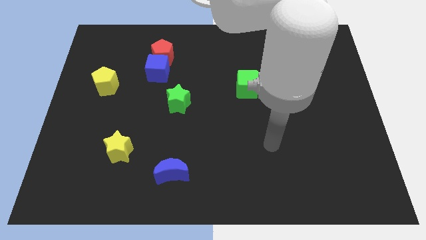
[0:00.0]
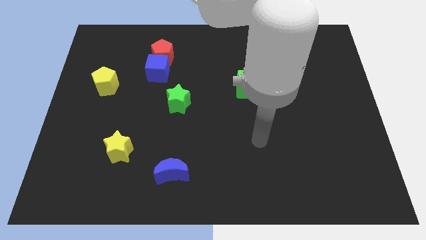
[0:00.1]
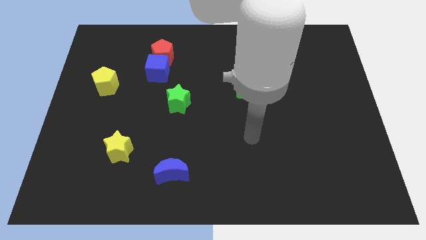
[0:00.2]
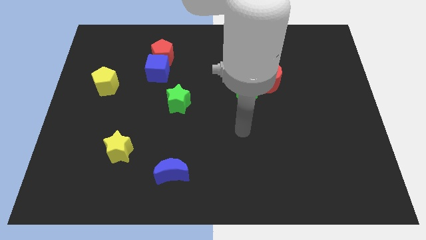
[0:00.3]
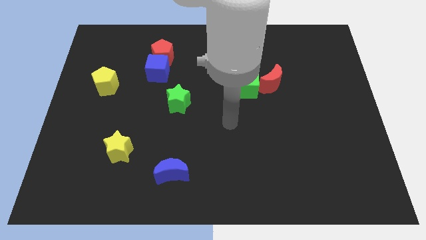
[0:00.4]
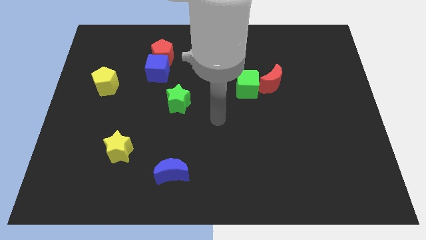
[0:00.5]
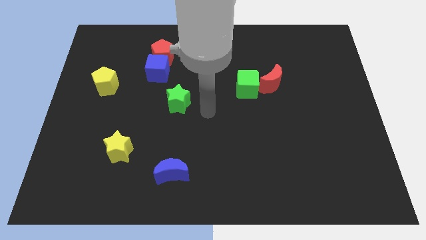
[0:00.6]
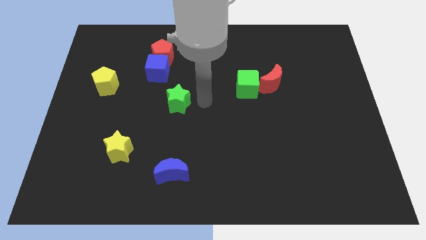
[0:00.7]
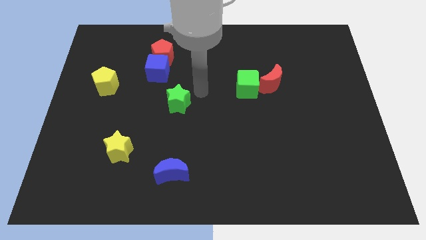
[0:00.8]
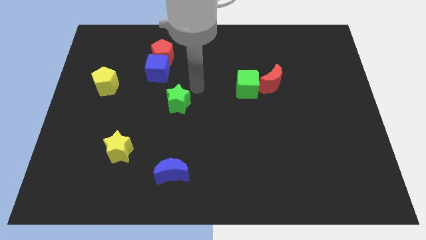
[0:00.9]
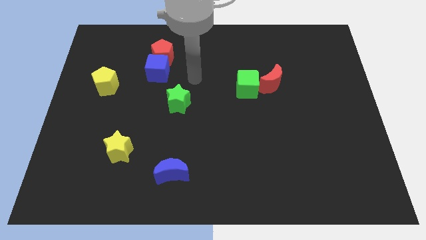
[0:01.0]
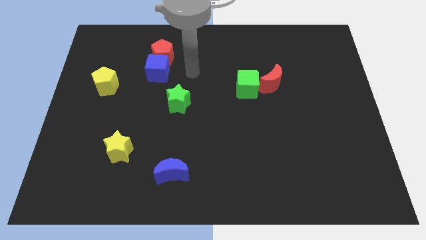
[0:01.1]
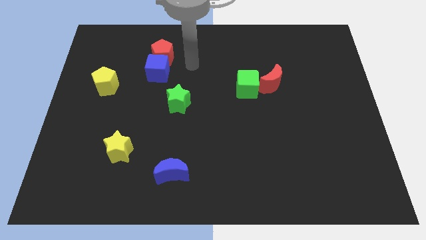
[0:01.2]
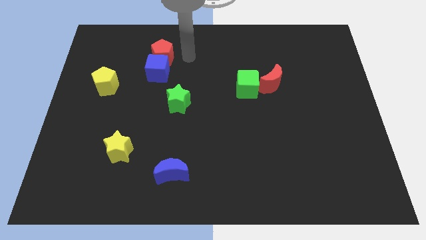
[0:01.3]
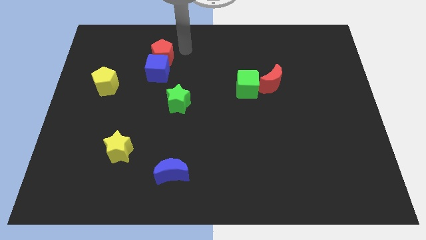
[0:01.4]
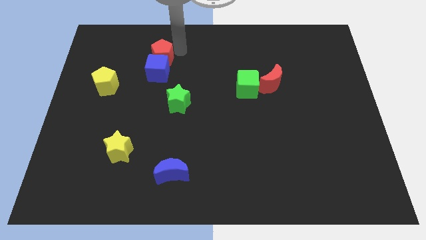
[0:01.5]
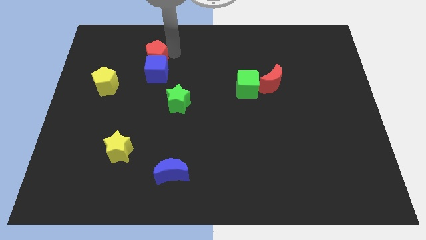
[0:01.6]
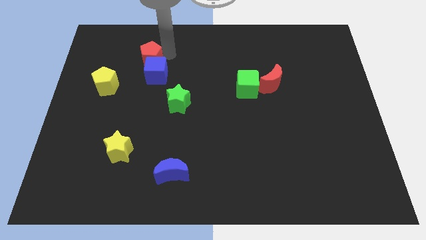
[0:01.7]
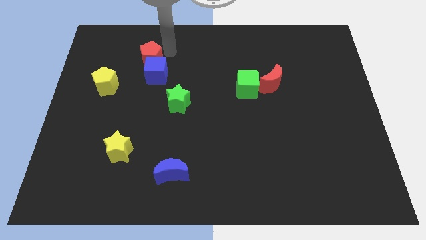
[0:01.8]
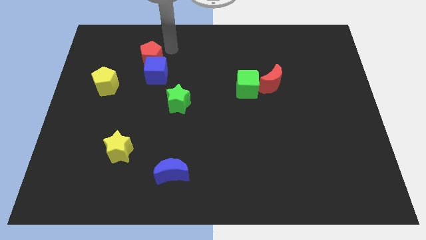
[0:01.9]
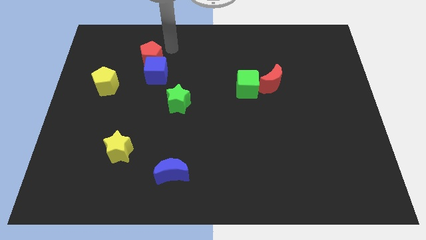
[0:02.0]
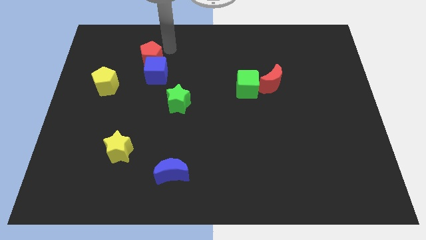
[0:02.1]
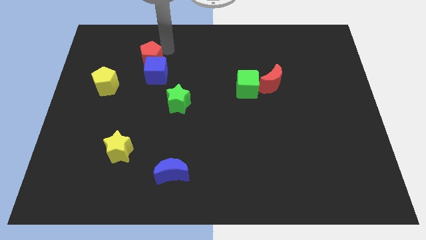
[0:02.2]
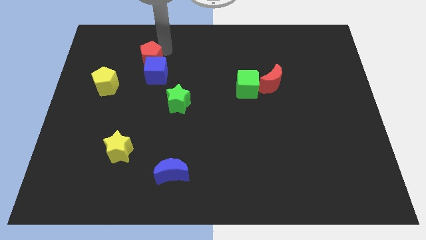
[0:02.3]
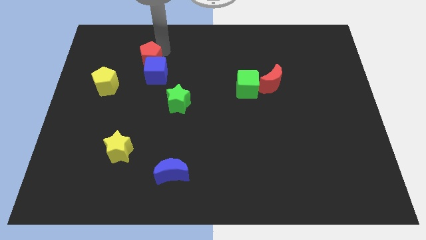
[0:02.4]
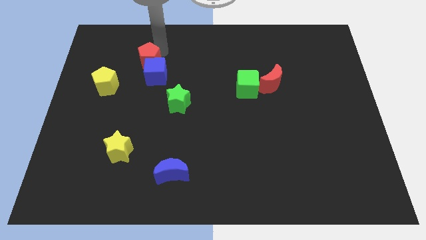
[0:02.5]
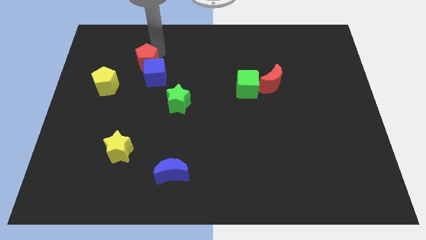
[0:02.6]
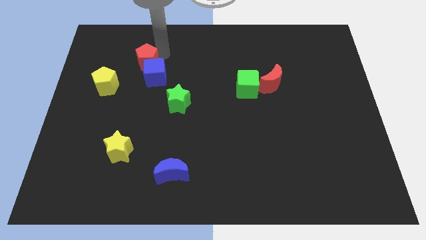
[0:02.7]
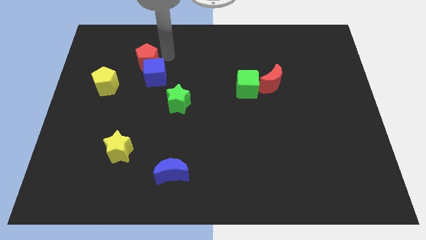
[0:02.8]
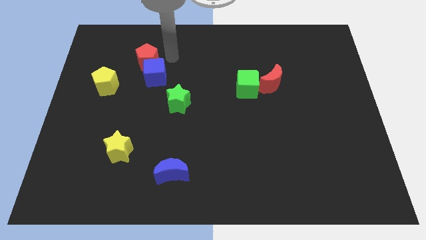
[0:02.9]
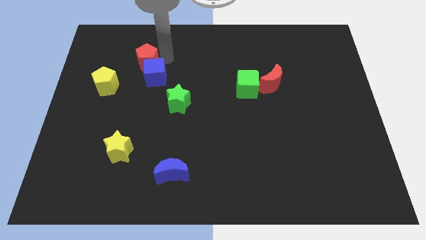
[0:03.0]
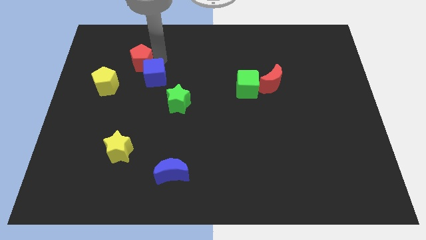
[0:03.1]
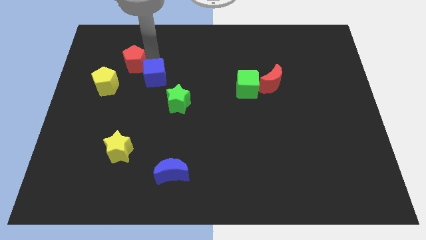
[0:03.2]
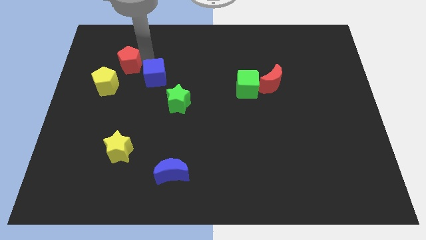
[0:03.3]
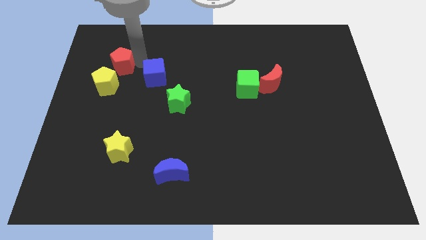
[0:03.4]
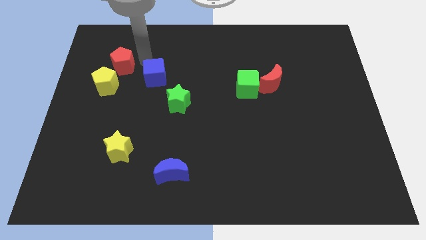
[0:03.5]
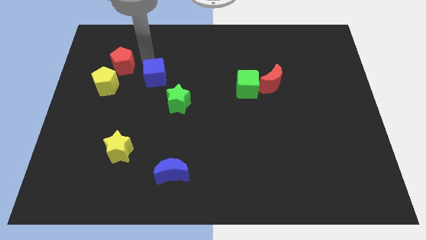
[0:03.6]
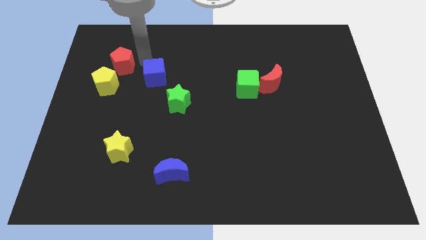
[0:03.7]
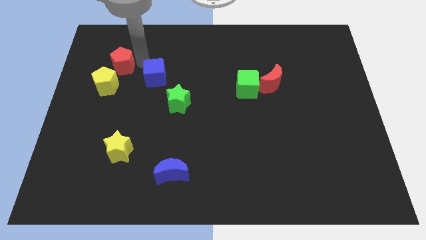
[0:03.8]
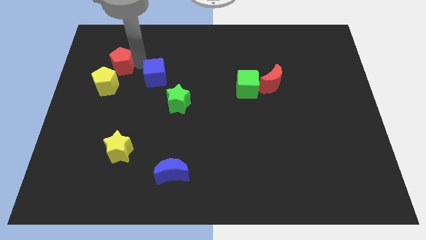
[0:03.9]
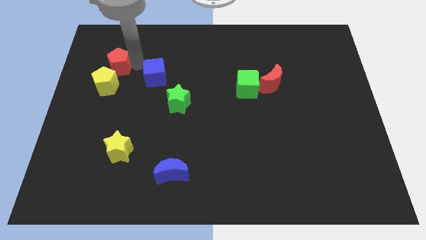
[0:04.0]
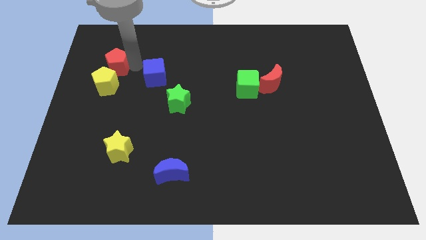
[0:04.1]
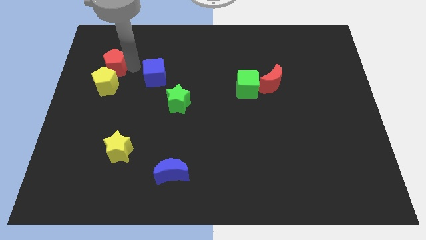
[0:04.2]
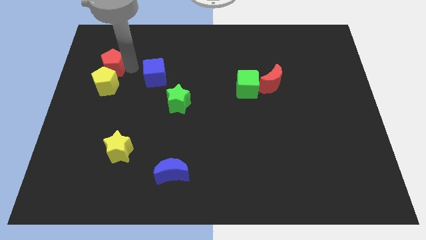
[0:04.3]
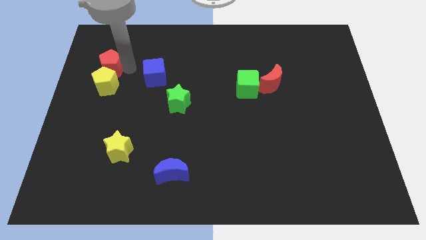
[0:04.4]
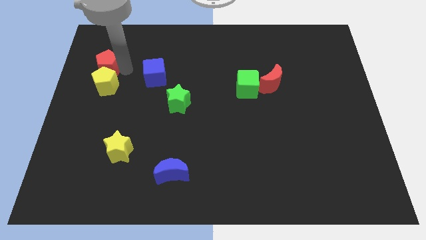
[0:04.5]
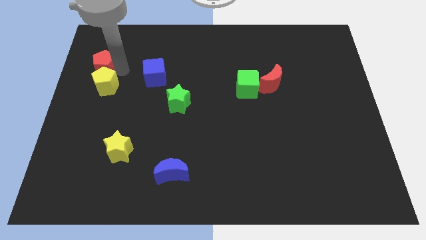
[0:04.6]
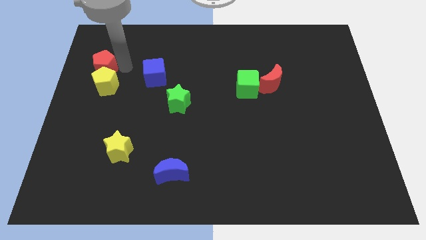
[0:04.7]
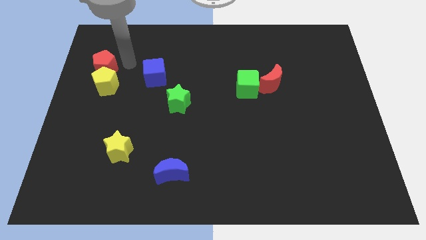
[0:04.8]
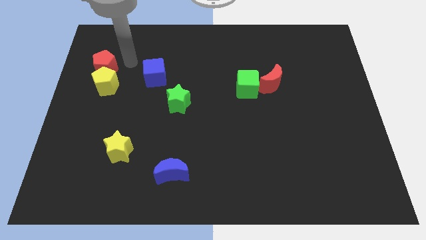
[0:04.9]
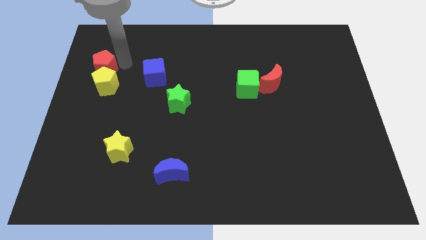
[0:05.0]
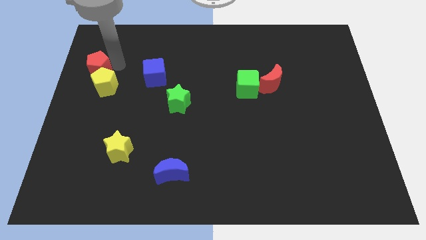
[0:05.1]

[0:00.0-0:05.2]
move the red pentagon to the left side

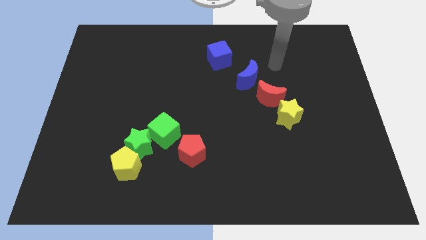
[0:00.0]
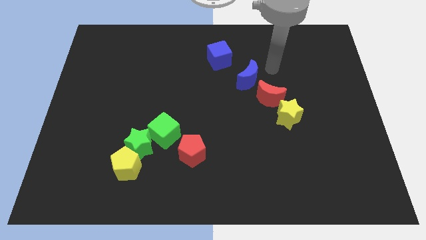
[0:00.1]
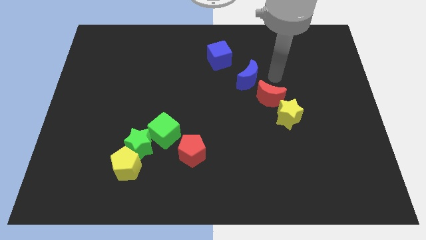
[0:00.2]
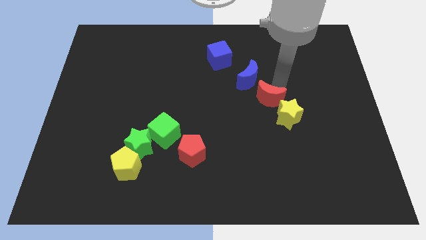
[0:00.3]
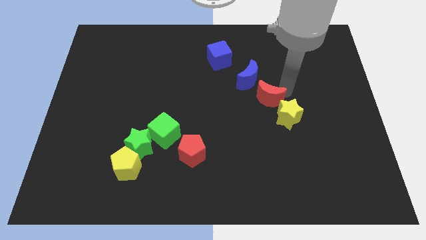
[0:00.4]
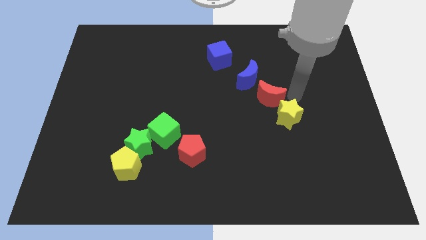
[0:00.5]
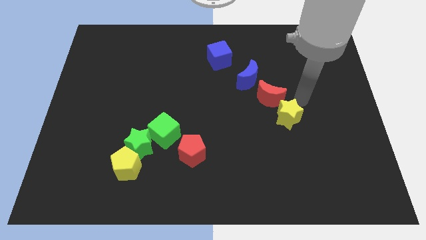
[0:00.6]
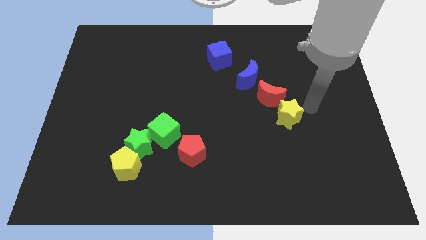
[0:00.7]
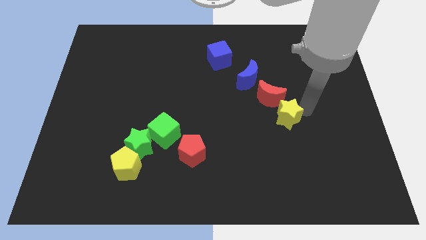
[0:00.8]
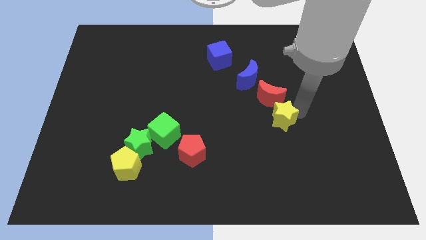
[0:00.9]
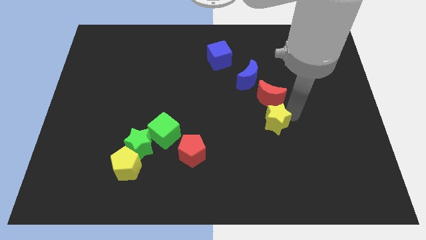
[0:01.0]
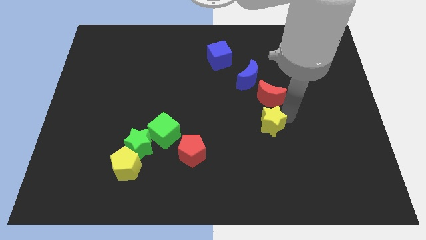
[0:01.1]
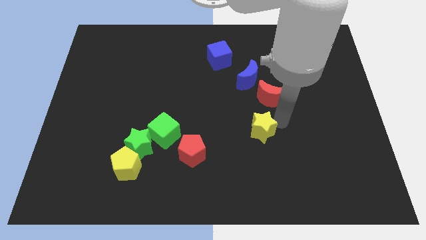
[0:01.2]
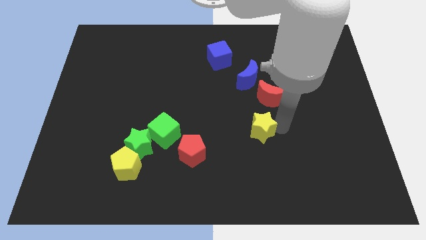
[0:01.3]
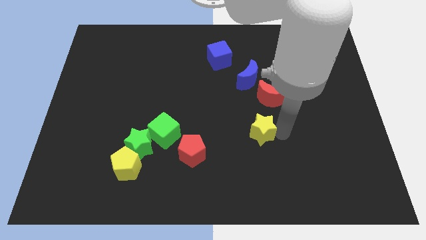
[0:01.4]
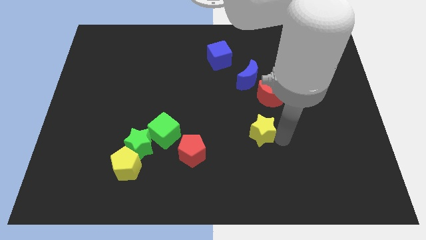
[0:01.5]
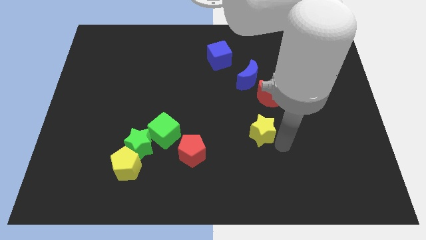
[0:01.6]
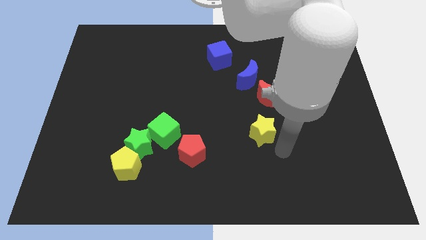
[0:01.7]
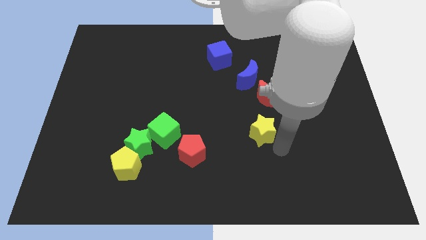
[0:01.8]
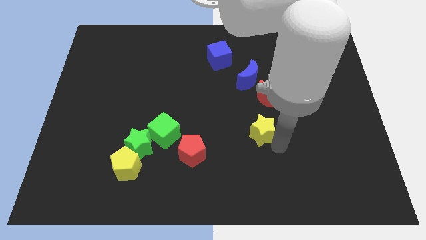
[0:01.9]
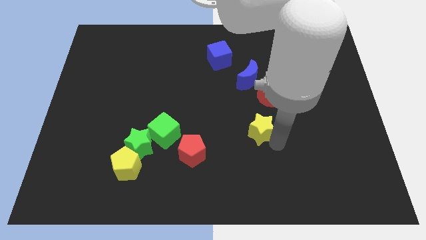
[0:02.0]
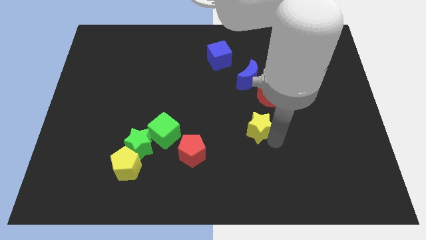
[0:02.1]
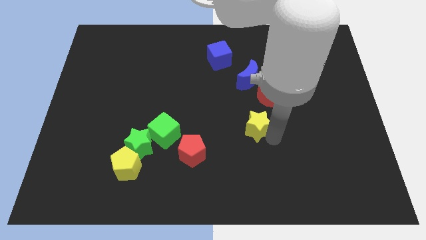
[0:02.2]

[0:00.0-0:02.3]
put the yellow star to the middle of the board
